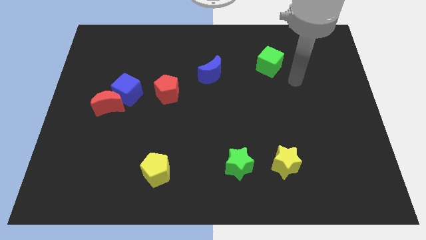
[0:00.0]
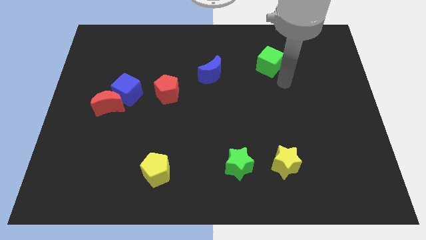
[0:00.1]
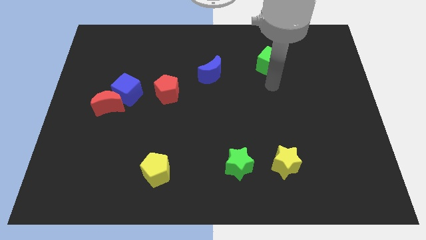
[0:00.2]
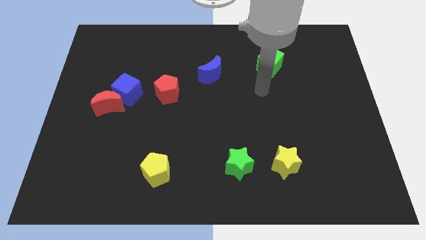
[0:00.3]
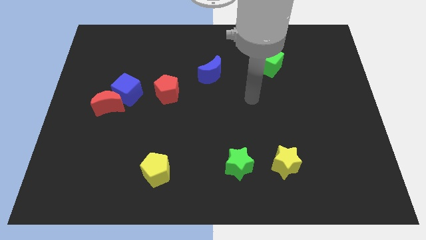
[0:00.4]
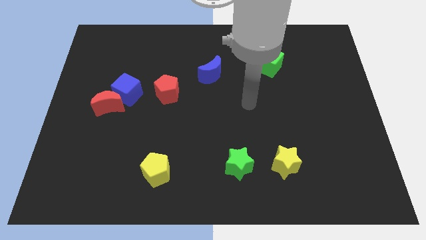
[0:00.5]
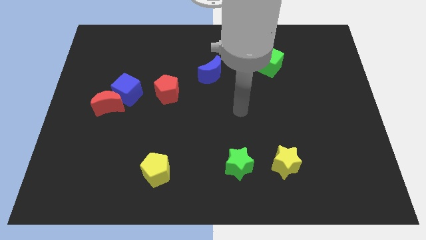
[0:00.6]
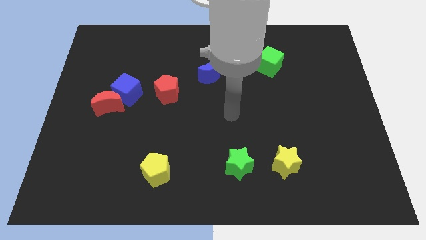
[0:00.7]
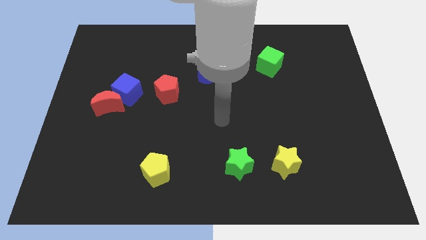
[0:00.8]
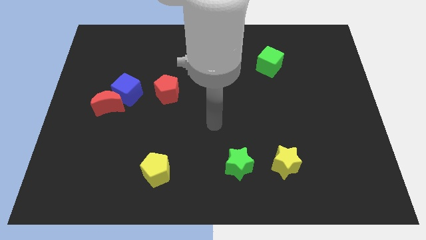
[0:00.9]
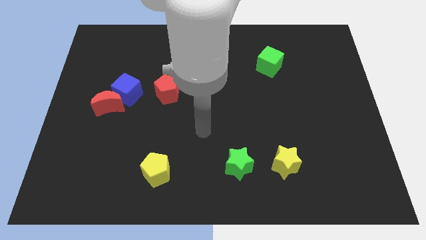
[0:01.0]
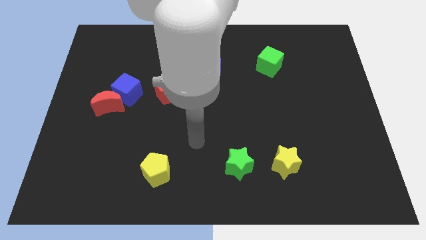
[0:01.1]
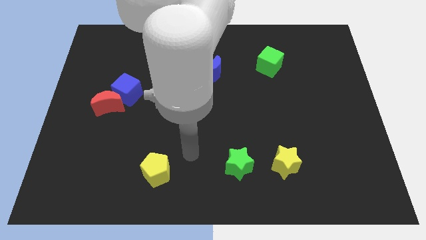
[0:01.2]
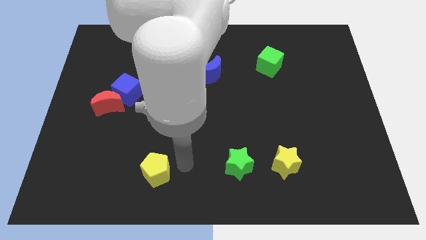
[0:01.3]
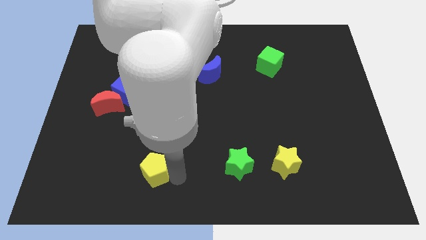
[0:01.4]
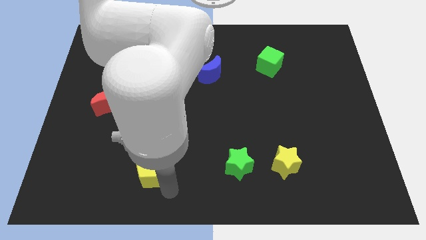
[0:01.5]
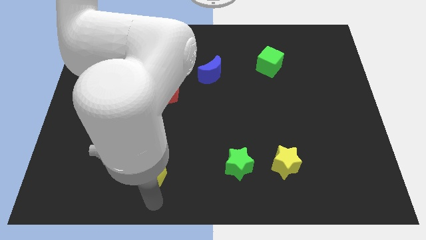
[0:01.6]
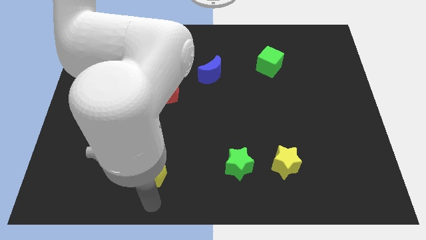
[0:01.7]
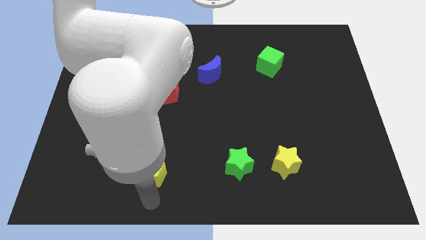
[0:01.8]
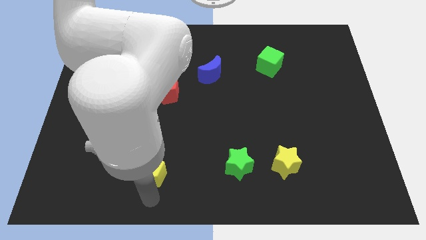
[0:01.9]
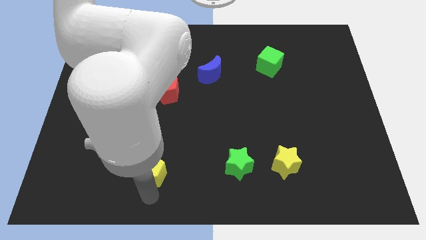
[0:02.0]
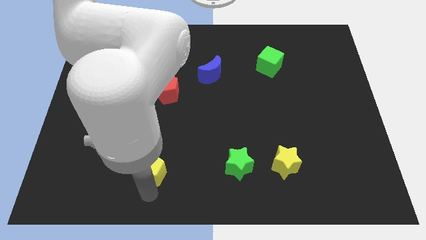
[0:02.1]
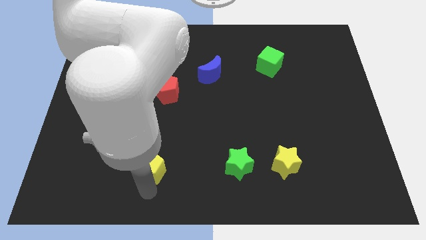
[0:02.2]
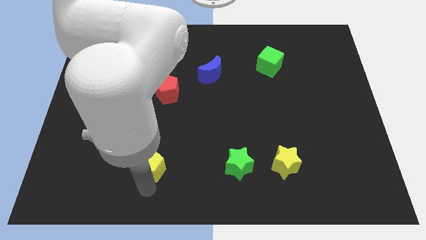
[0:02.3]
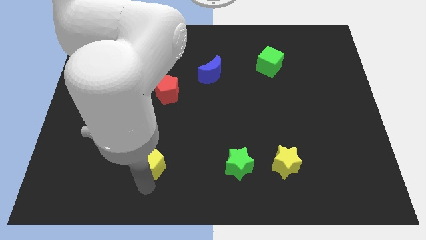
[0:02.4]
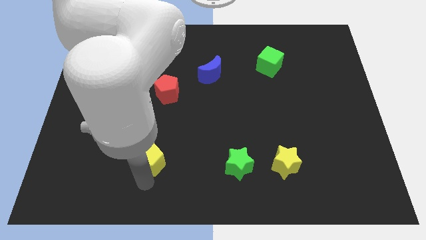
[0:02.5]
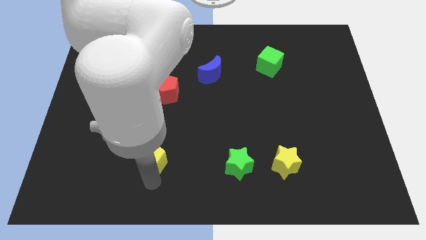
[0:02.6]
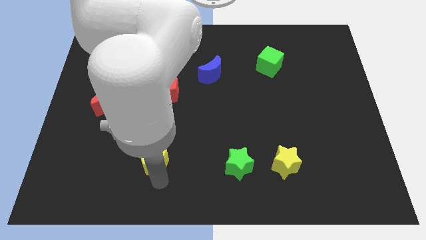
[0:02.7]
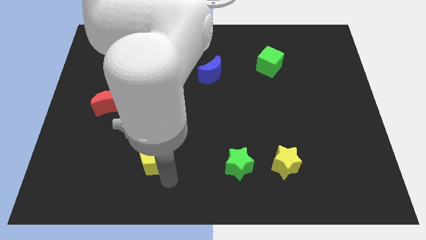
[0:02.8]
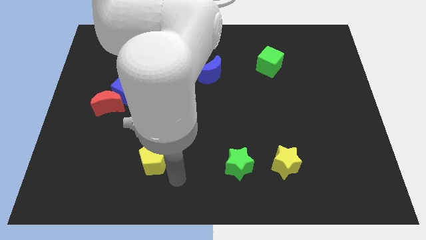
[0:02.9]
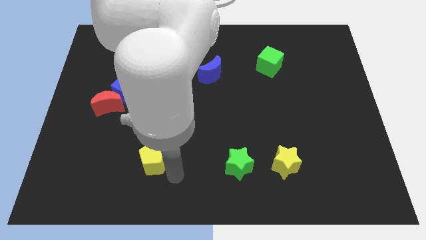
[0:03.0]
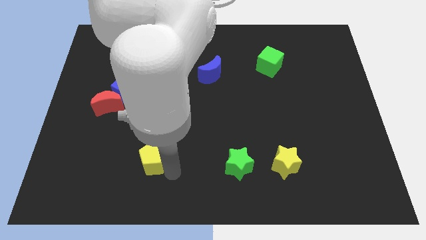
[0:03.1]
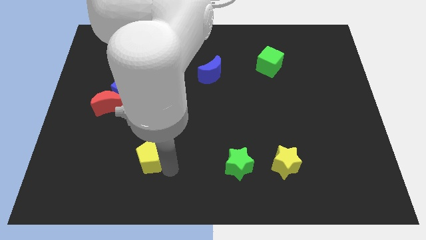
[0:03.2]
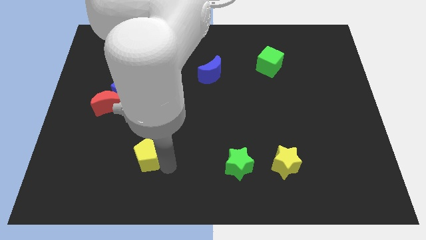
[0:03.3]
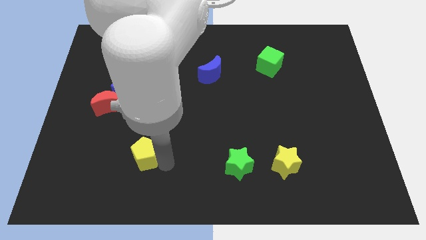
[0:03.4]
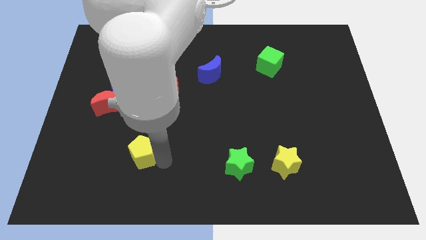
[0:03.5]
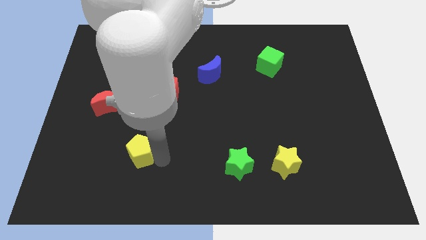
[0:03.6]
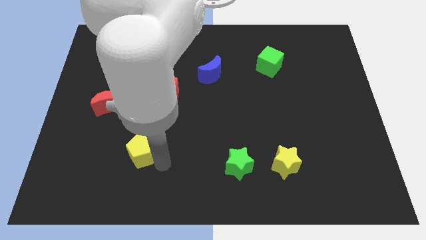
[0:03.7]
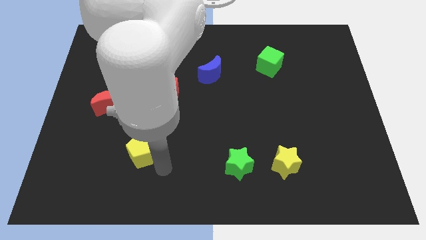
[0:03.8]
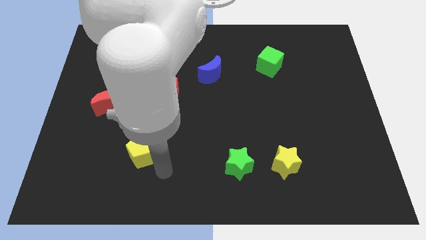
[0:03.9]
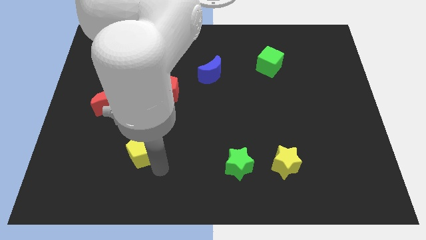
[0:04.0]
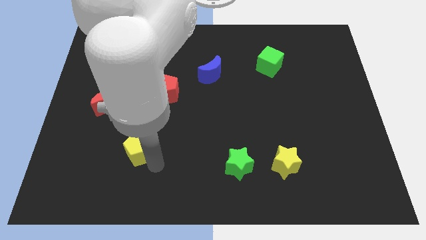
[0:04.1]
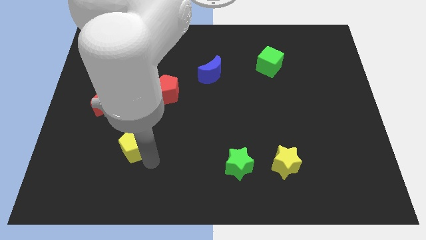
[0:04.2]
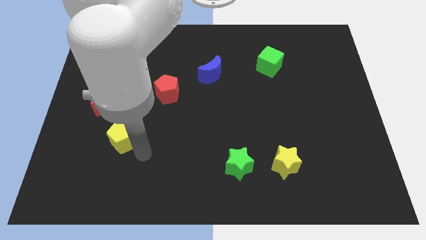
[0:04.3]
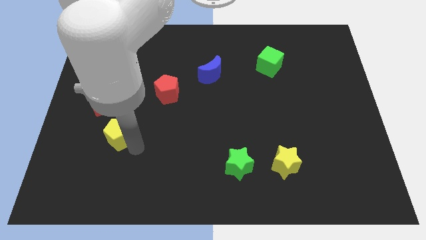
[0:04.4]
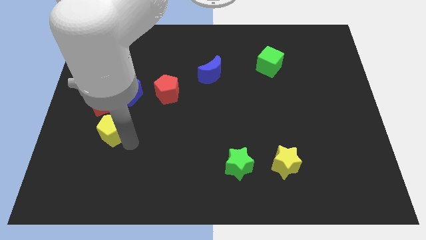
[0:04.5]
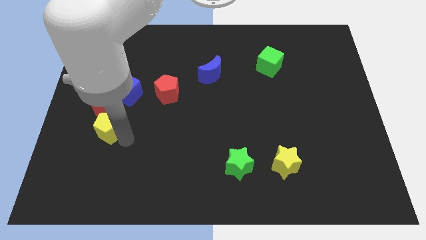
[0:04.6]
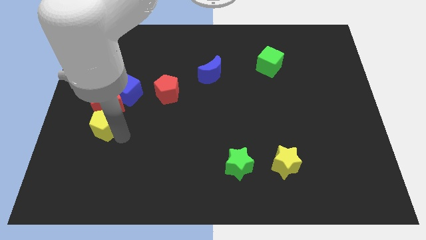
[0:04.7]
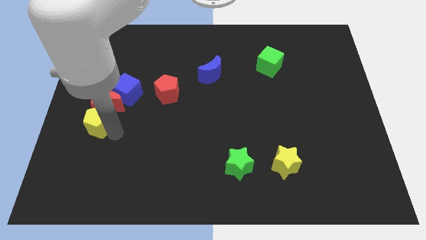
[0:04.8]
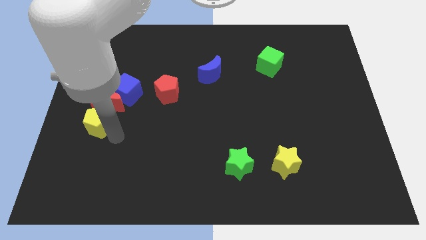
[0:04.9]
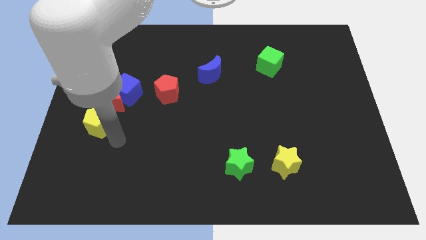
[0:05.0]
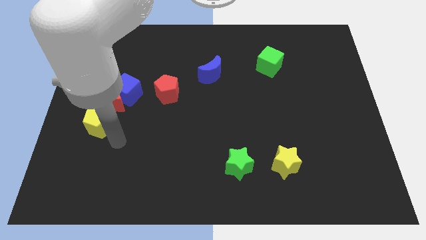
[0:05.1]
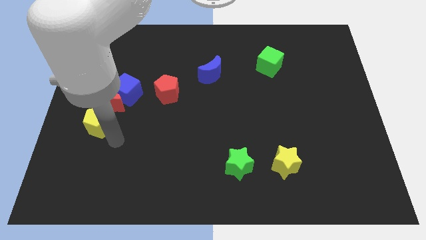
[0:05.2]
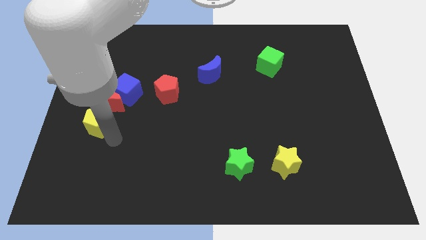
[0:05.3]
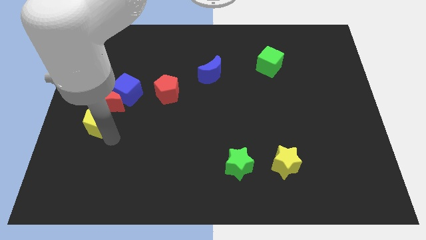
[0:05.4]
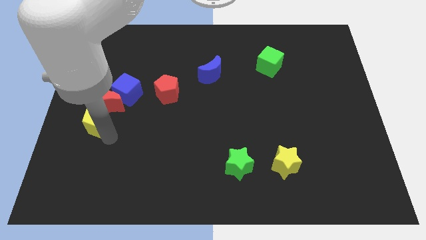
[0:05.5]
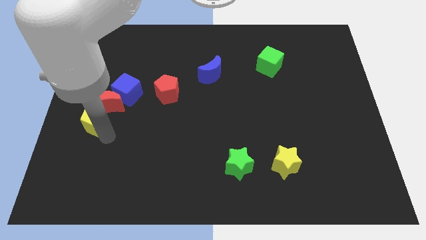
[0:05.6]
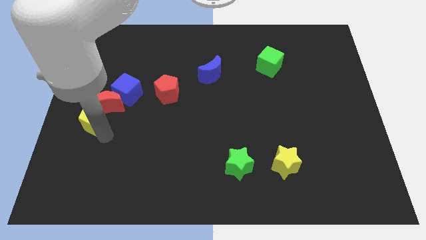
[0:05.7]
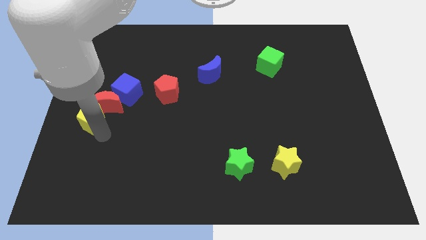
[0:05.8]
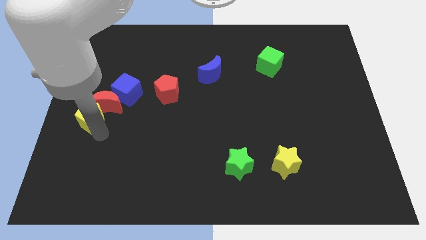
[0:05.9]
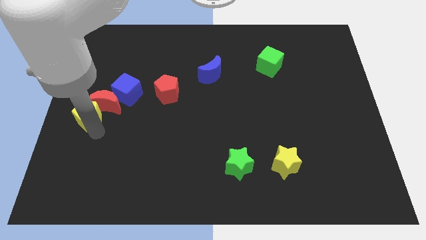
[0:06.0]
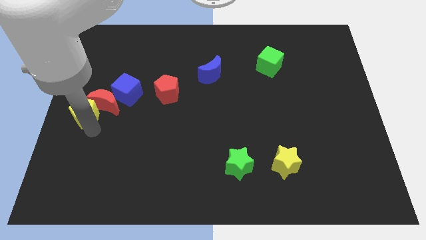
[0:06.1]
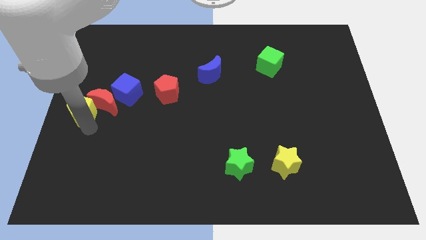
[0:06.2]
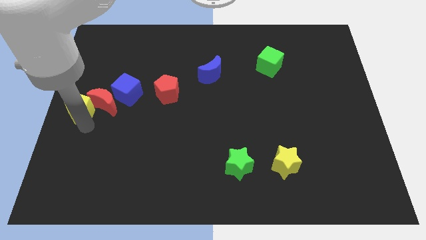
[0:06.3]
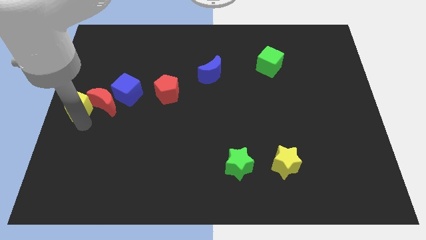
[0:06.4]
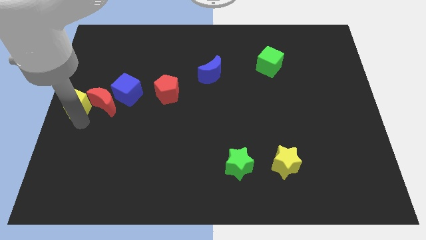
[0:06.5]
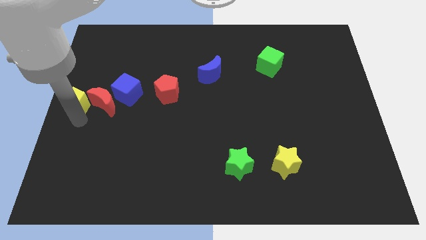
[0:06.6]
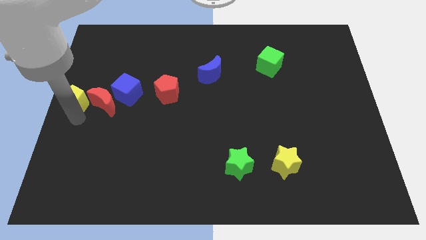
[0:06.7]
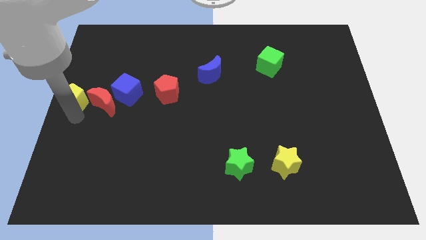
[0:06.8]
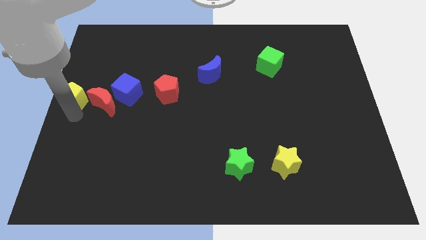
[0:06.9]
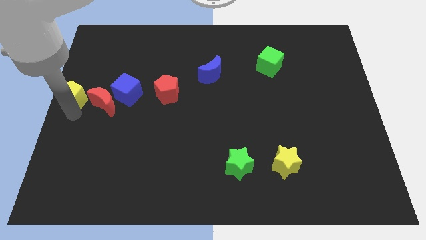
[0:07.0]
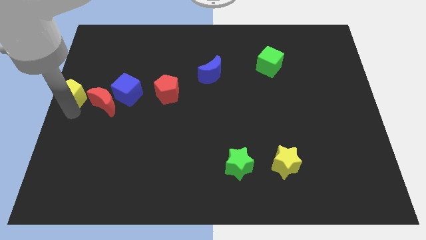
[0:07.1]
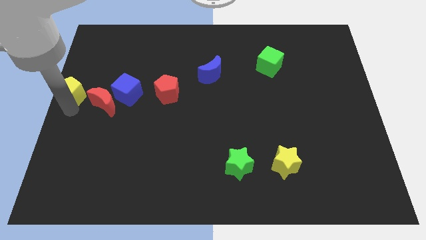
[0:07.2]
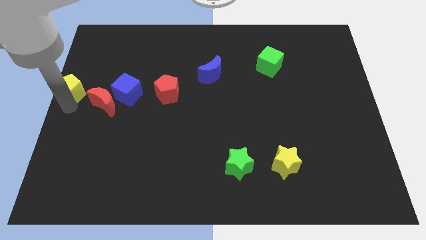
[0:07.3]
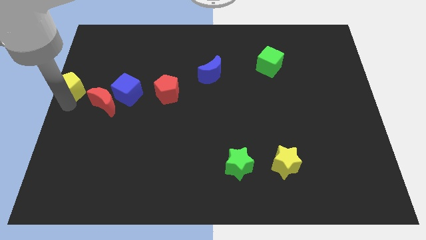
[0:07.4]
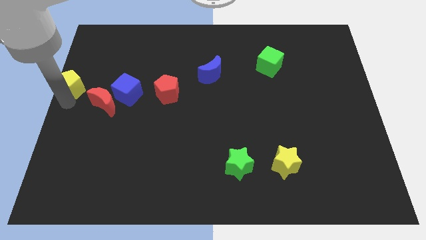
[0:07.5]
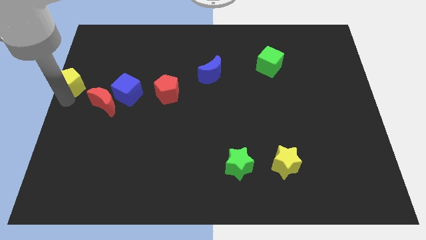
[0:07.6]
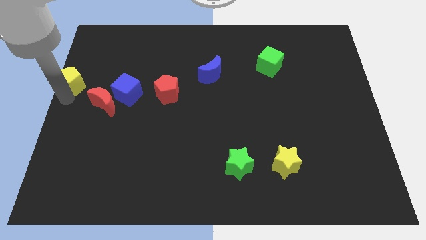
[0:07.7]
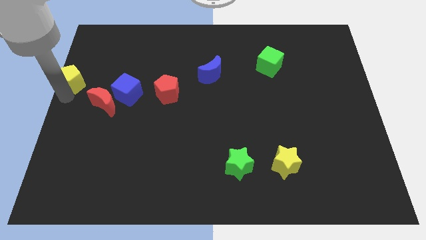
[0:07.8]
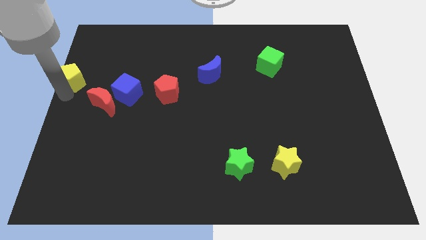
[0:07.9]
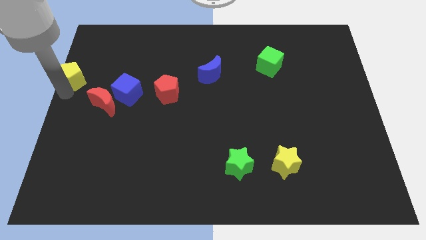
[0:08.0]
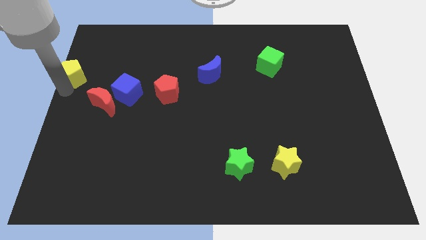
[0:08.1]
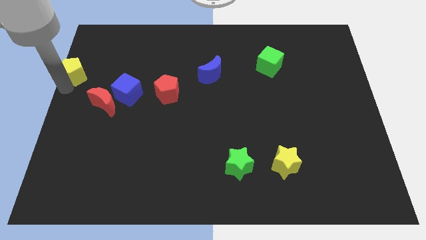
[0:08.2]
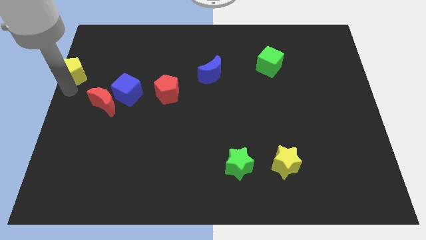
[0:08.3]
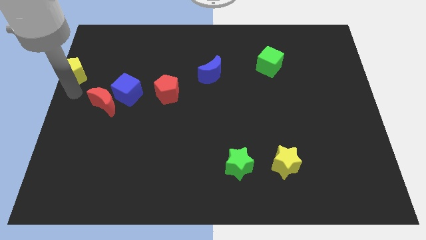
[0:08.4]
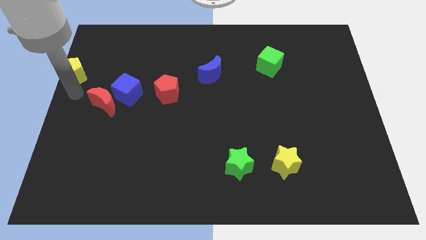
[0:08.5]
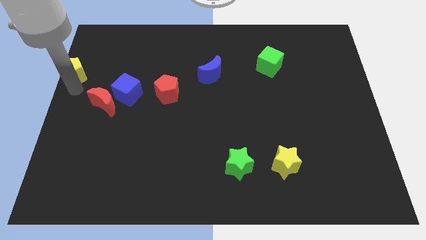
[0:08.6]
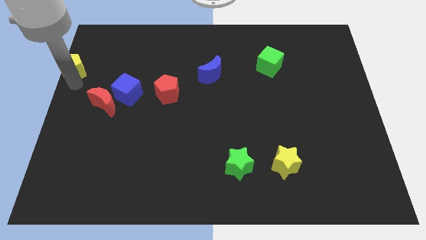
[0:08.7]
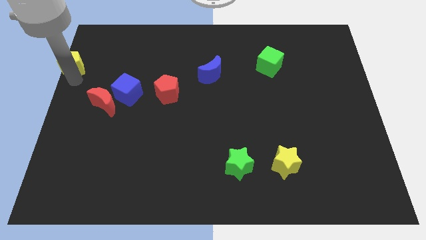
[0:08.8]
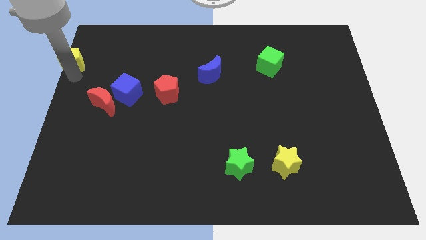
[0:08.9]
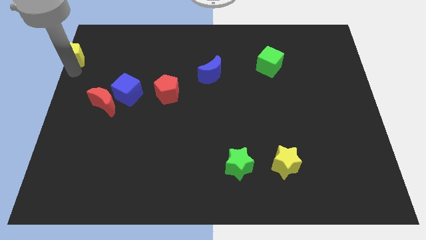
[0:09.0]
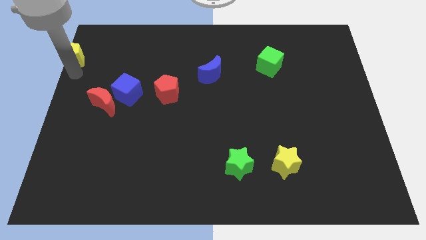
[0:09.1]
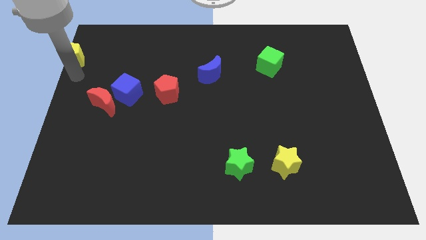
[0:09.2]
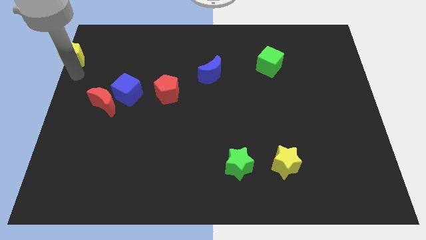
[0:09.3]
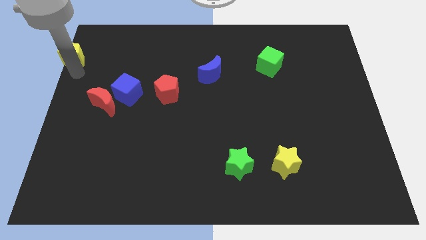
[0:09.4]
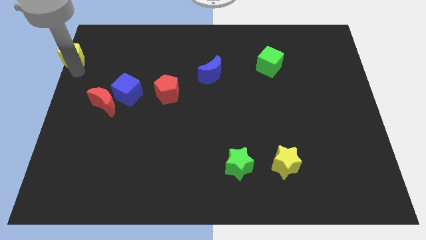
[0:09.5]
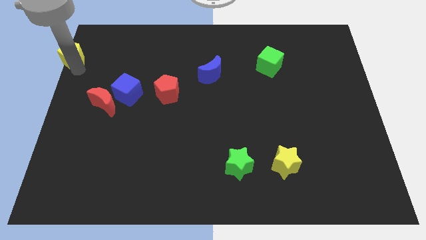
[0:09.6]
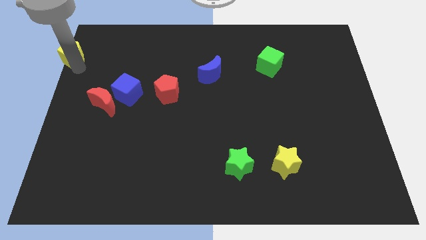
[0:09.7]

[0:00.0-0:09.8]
move the yellow pentagon to the upper left corner
